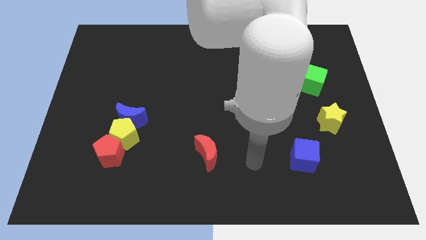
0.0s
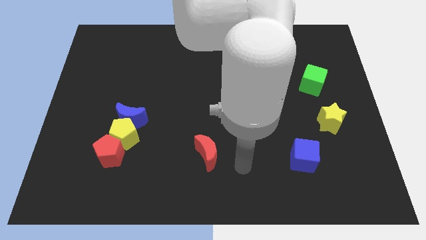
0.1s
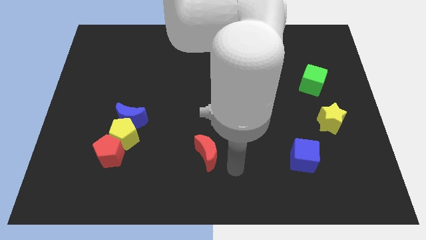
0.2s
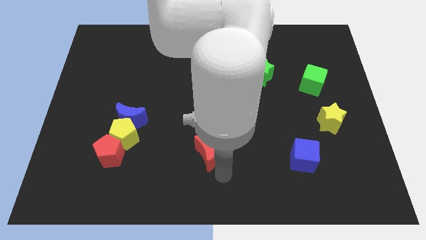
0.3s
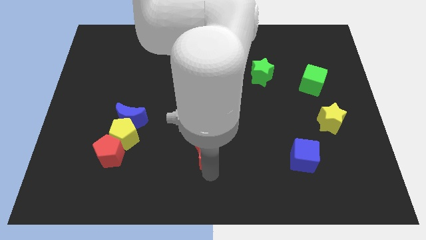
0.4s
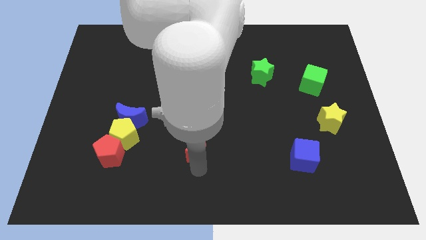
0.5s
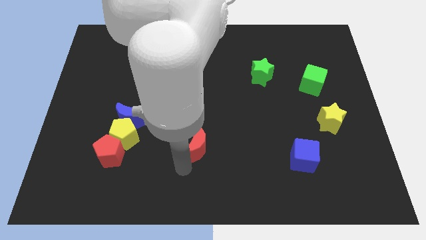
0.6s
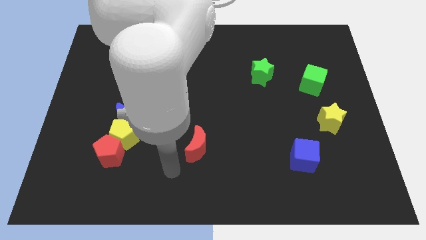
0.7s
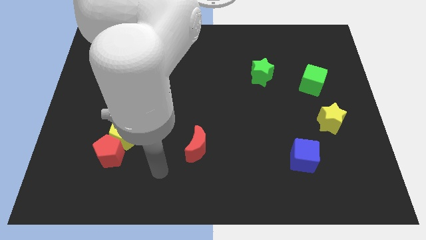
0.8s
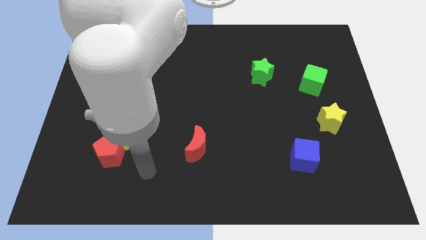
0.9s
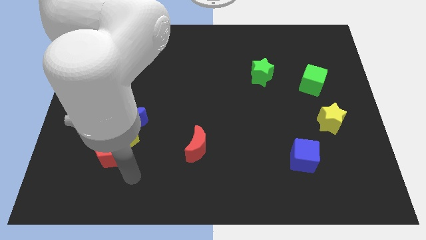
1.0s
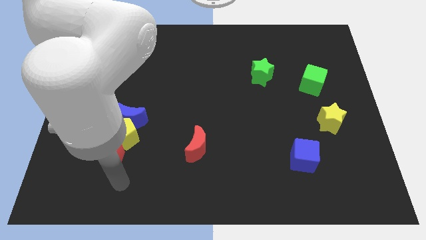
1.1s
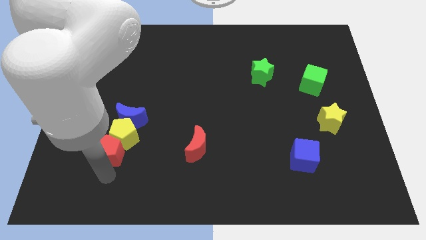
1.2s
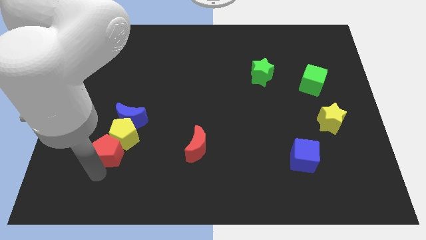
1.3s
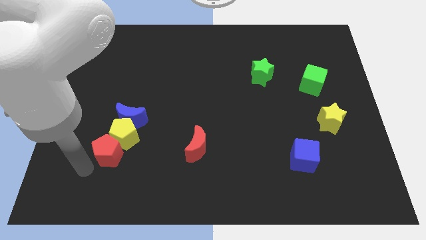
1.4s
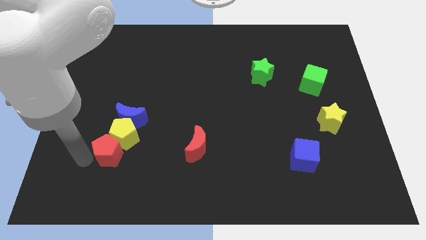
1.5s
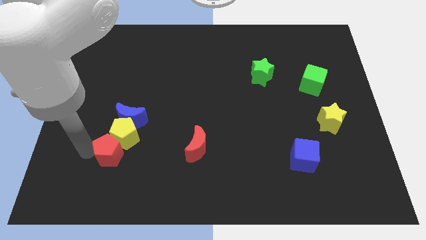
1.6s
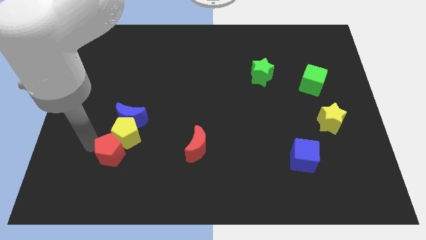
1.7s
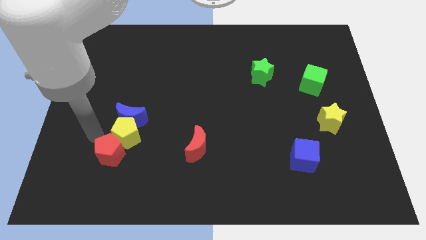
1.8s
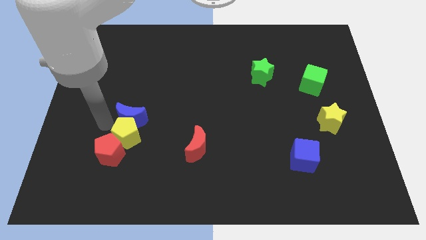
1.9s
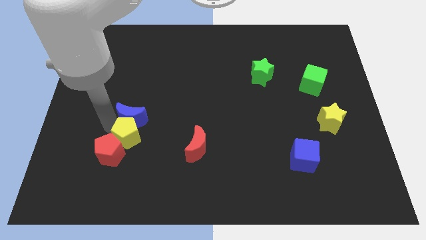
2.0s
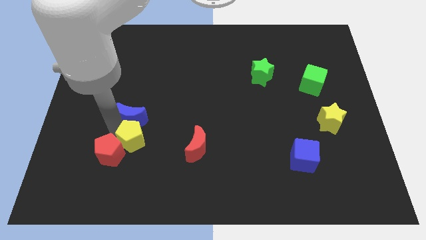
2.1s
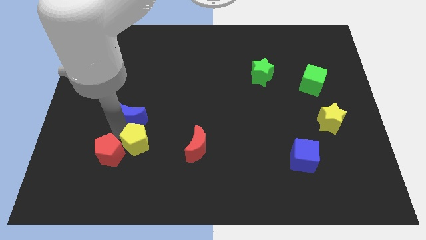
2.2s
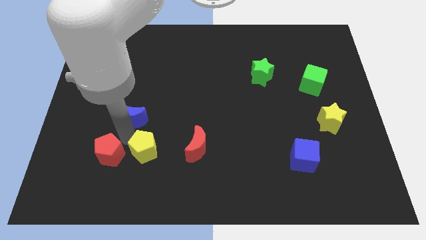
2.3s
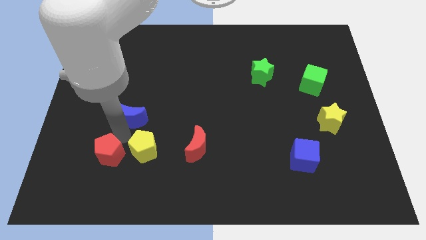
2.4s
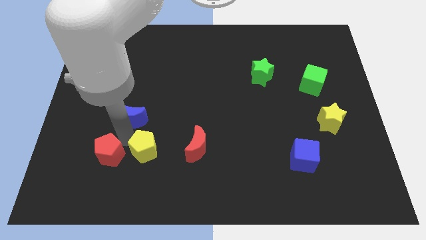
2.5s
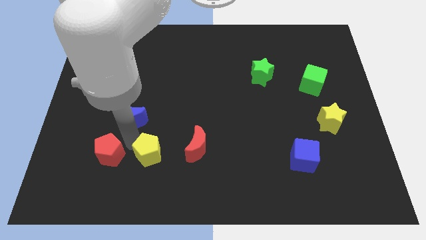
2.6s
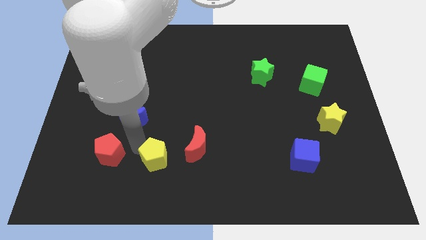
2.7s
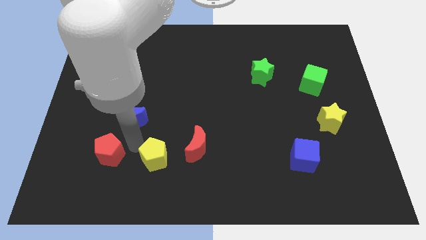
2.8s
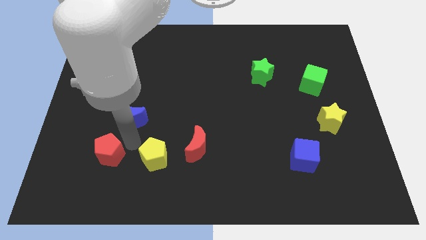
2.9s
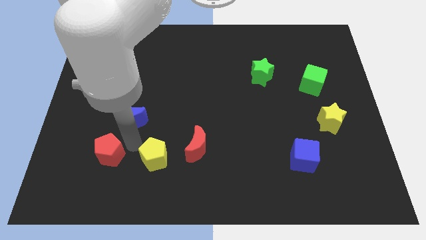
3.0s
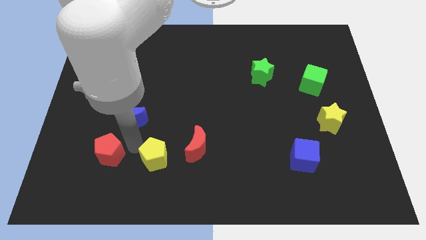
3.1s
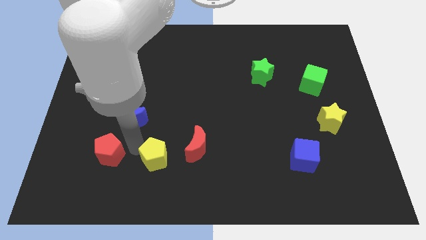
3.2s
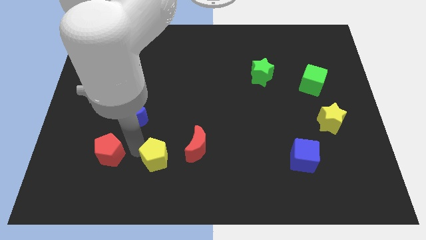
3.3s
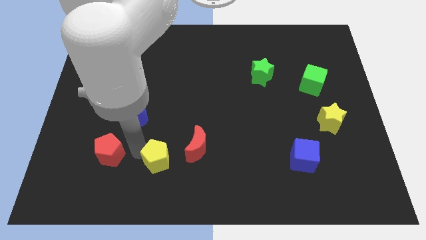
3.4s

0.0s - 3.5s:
separate the yellow pentagon from the blue moon and red pentagon

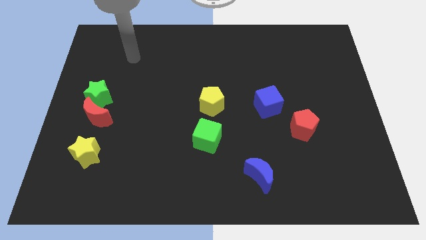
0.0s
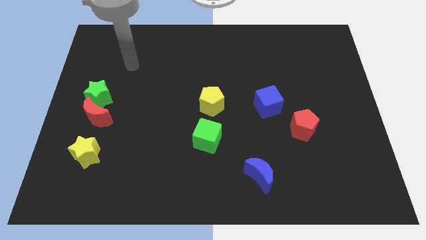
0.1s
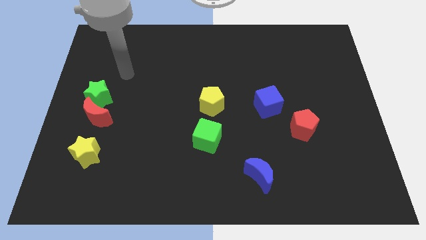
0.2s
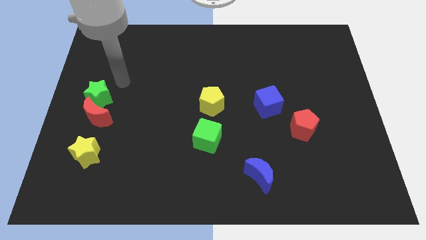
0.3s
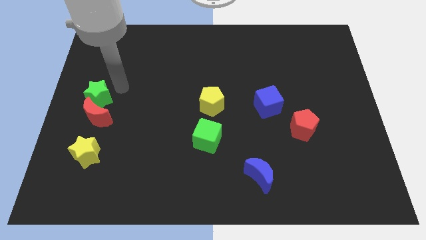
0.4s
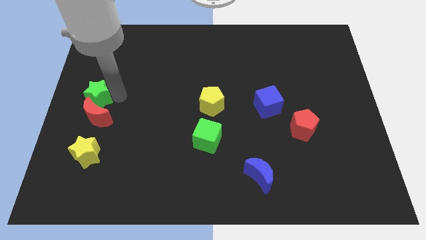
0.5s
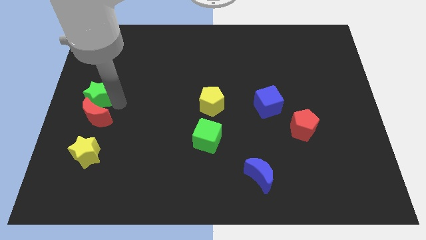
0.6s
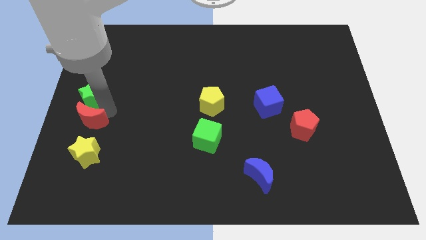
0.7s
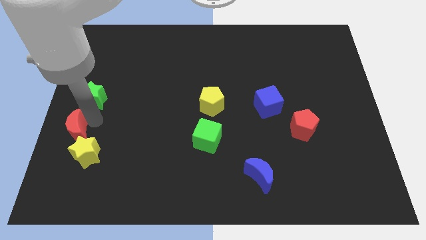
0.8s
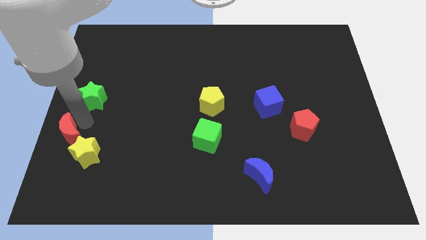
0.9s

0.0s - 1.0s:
move the green star away from the red moon

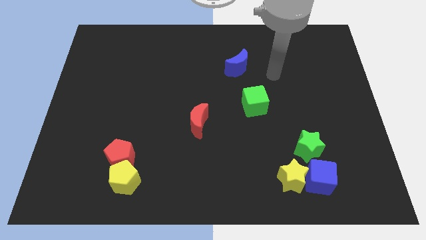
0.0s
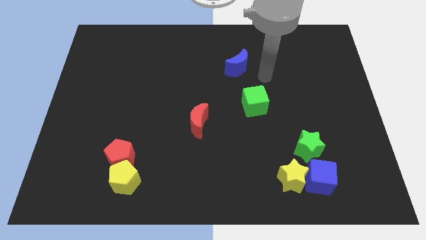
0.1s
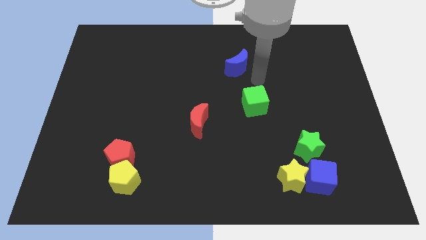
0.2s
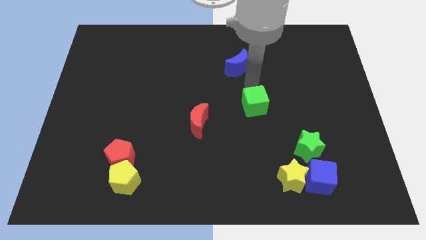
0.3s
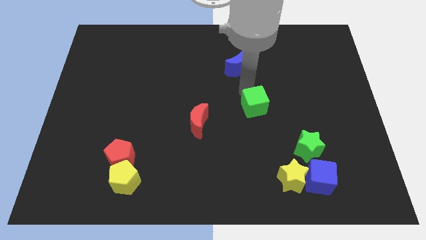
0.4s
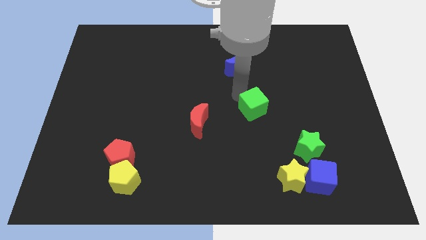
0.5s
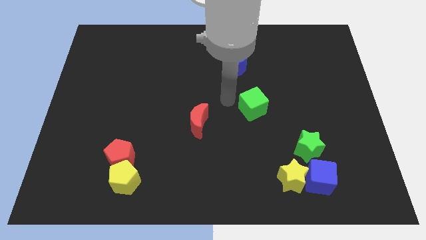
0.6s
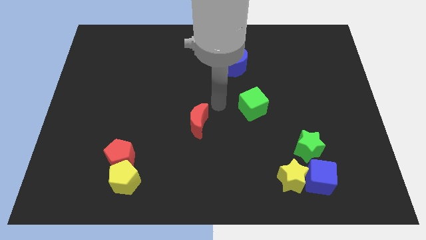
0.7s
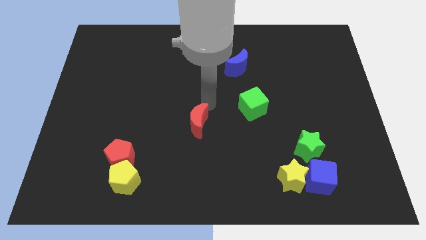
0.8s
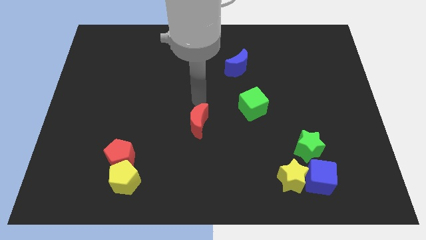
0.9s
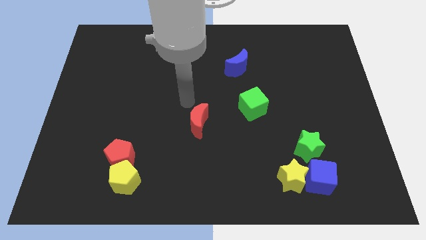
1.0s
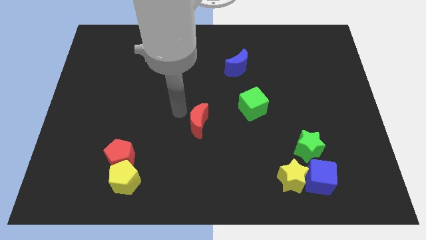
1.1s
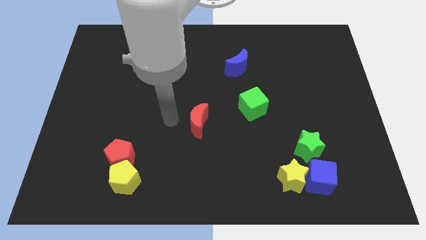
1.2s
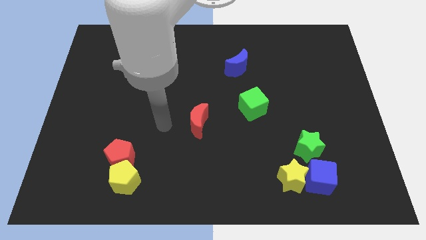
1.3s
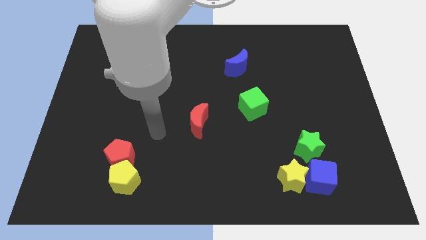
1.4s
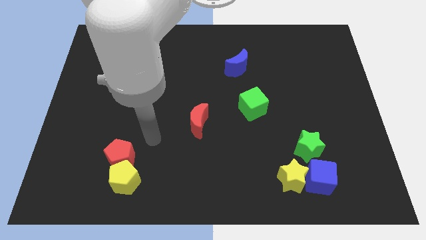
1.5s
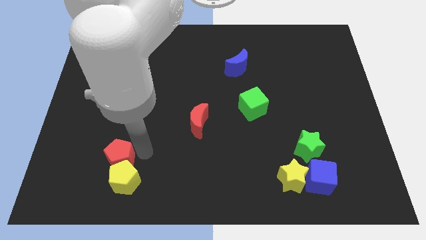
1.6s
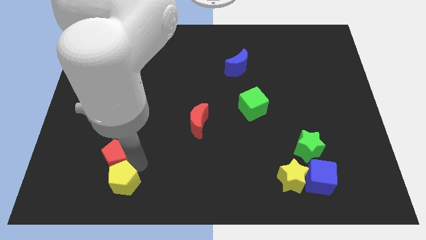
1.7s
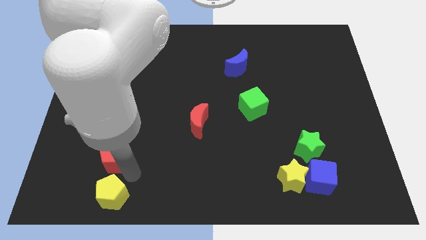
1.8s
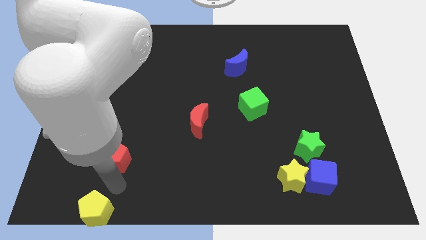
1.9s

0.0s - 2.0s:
pull the red pentagon apart from the yellow pentagon

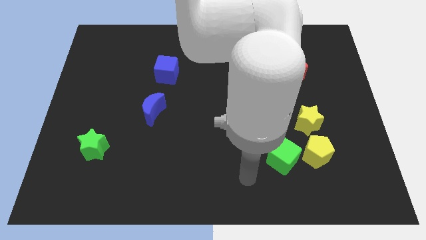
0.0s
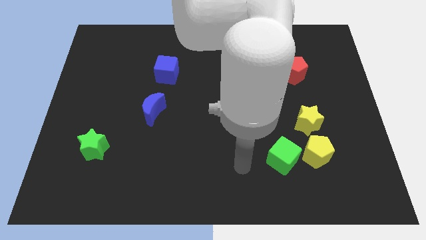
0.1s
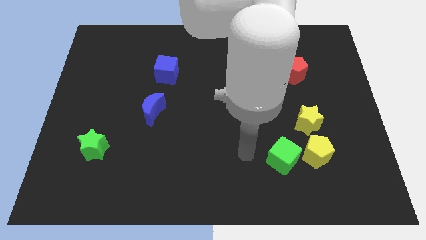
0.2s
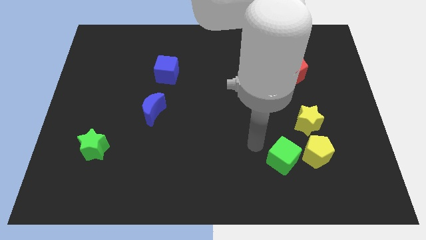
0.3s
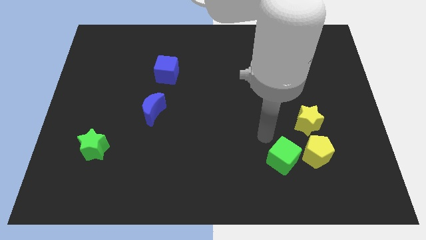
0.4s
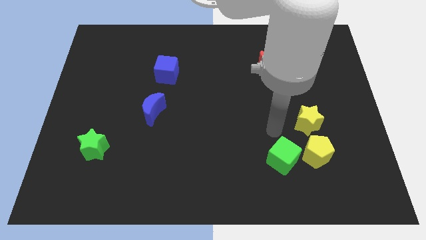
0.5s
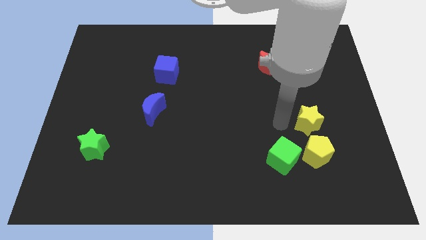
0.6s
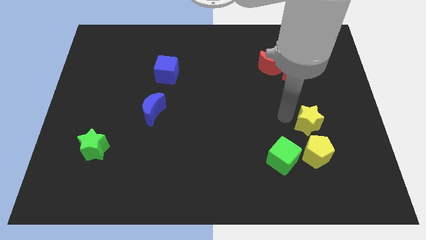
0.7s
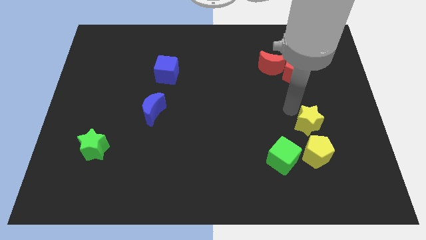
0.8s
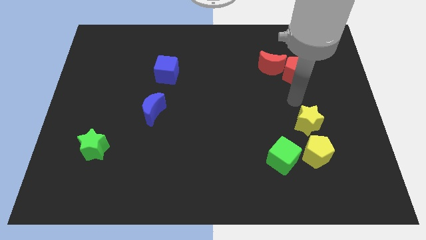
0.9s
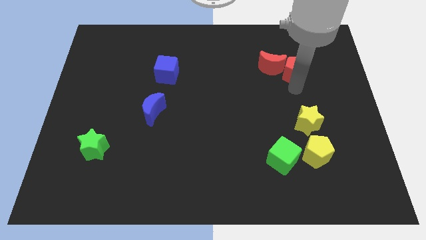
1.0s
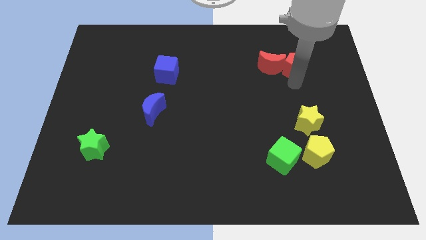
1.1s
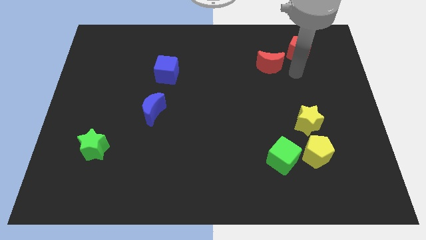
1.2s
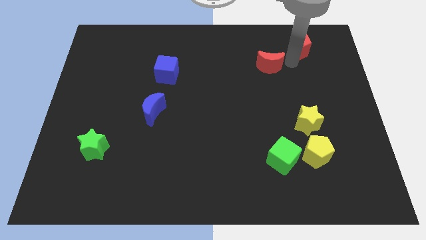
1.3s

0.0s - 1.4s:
separate the red moon from the red pentagon

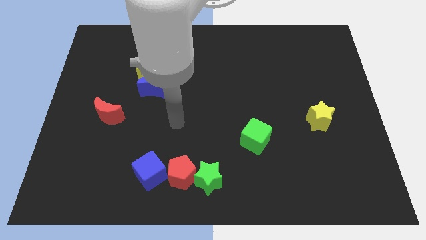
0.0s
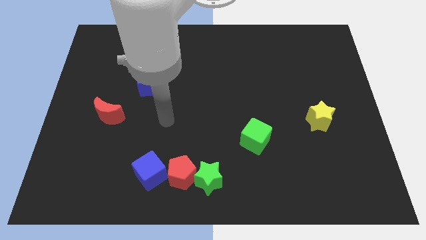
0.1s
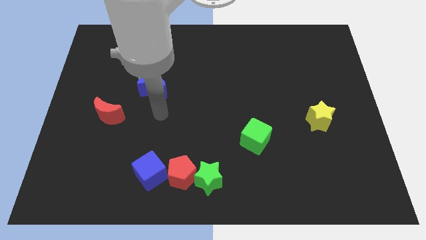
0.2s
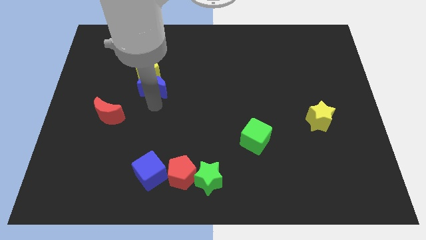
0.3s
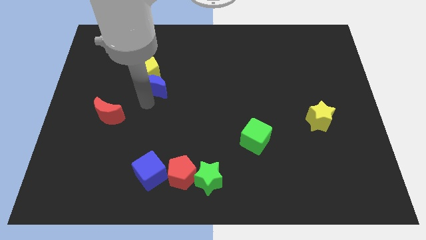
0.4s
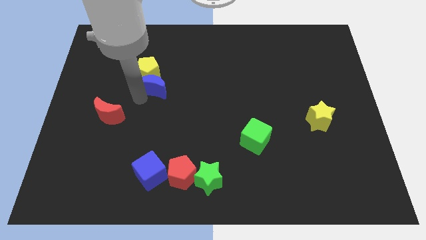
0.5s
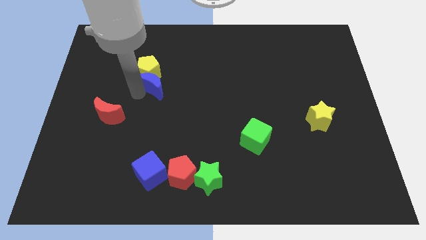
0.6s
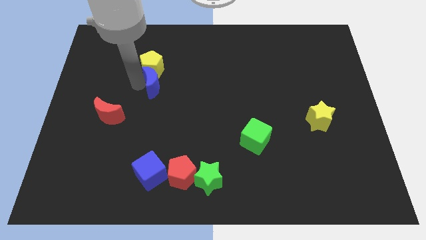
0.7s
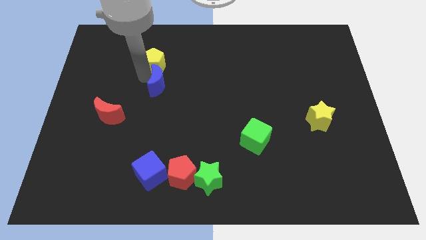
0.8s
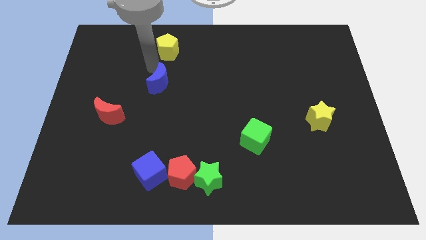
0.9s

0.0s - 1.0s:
pull the blue moon apart from the yellow pentagon

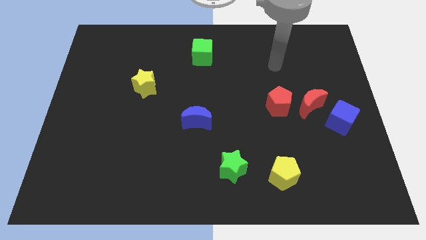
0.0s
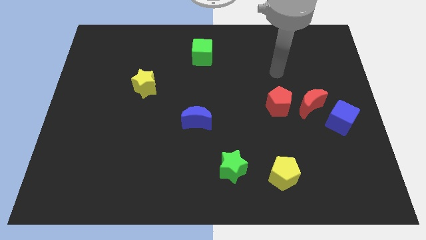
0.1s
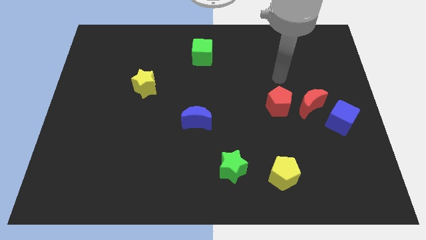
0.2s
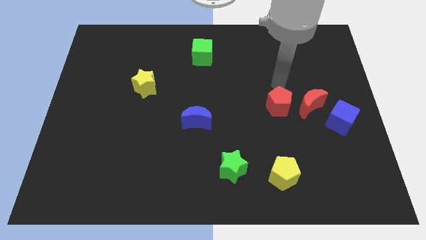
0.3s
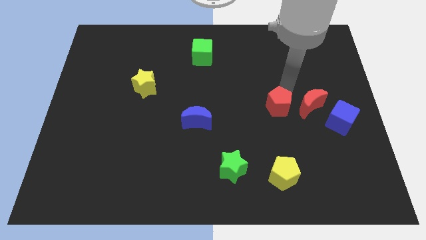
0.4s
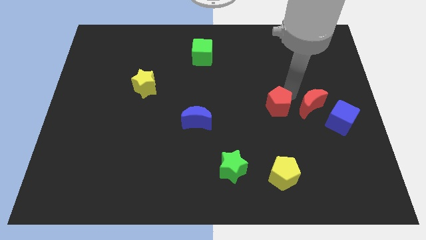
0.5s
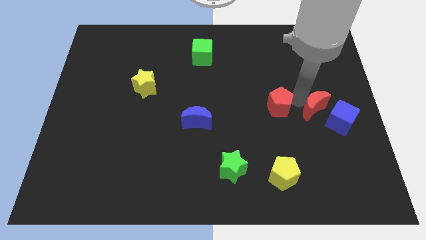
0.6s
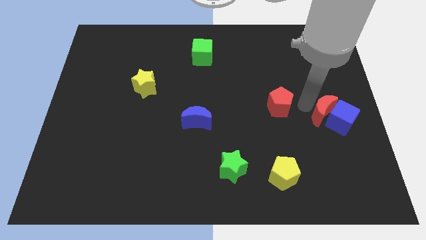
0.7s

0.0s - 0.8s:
move the red pentagon away from the red moon
